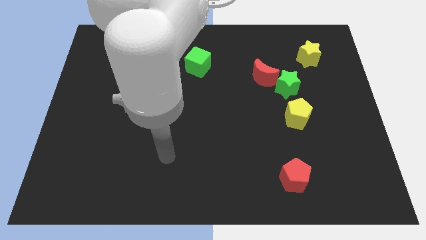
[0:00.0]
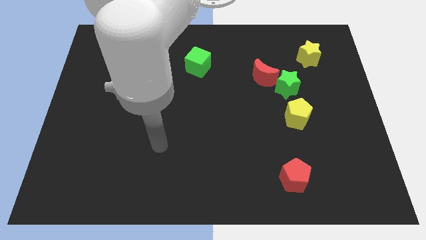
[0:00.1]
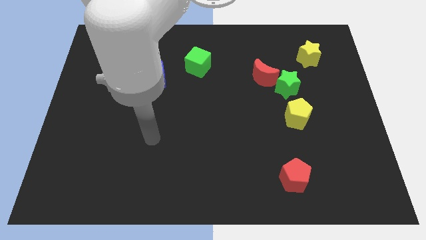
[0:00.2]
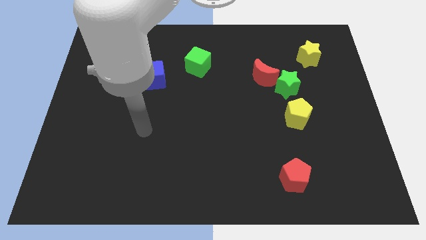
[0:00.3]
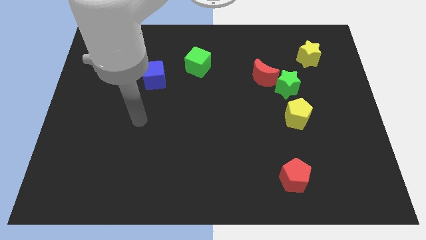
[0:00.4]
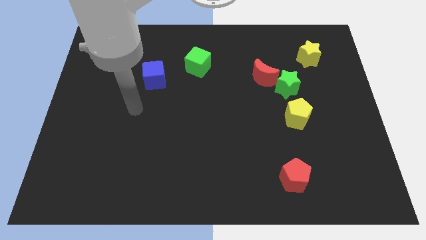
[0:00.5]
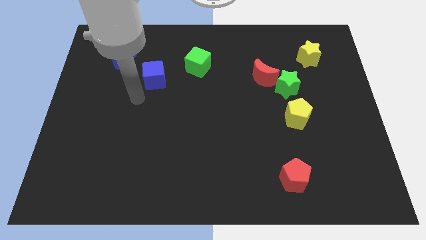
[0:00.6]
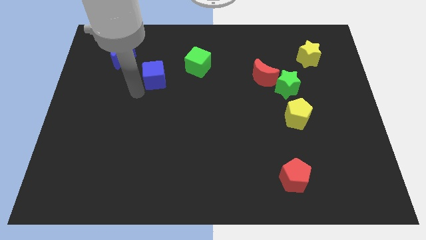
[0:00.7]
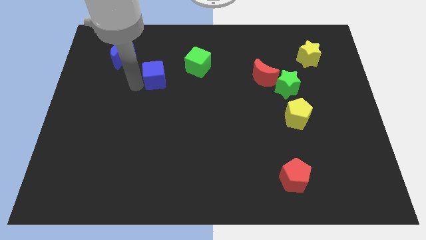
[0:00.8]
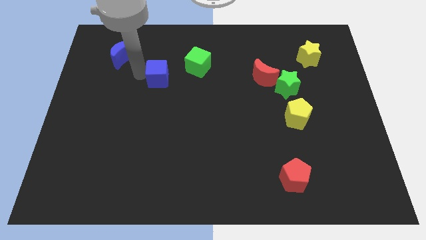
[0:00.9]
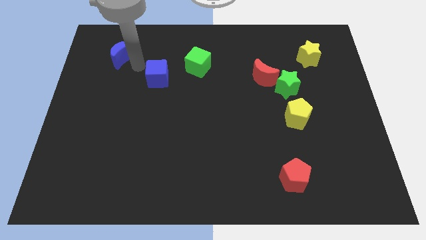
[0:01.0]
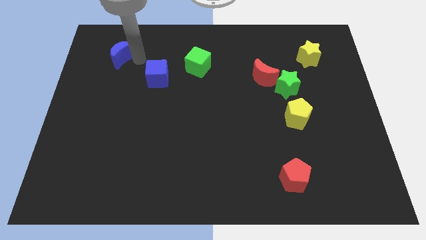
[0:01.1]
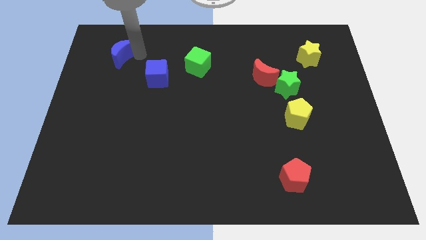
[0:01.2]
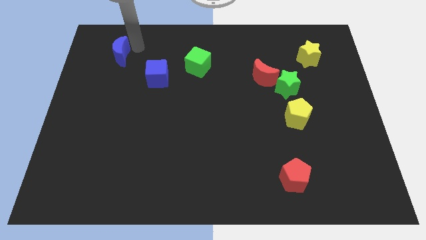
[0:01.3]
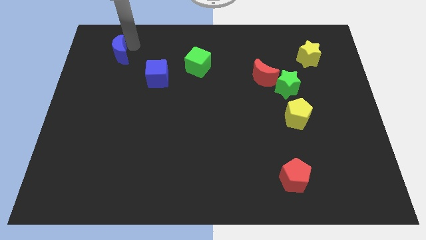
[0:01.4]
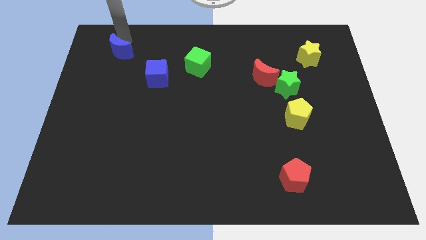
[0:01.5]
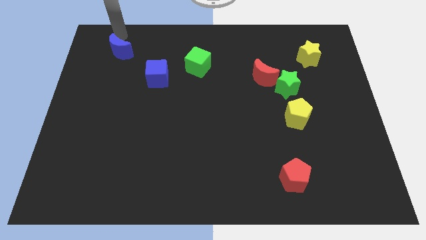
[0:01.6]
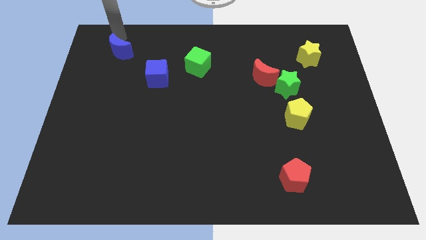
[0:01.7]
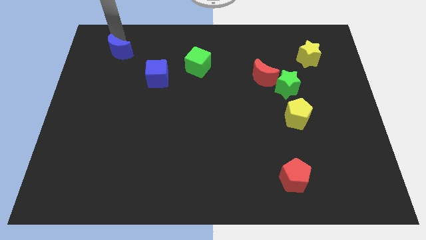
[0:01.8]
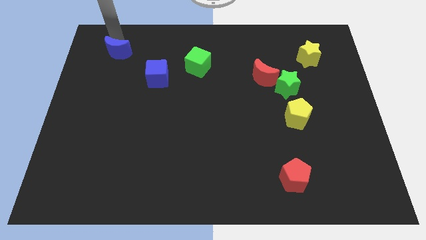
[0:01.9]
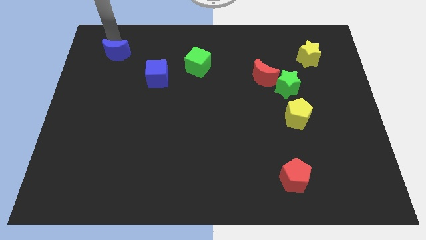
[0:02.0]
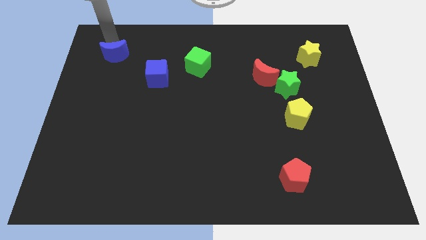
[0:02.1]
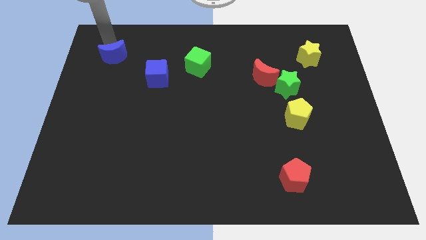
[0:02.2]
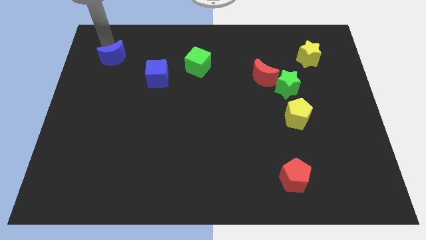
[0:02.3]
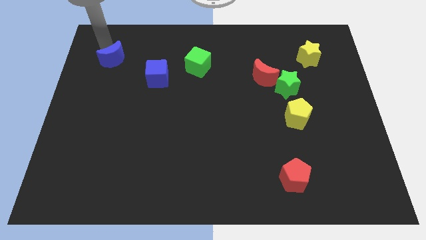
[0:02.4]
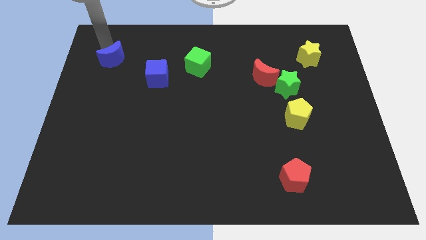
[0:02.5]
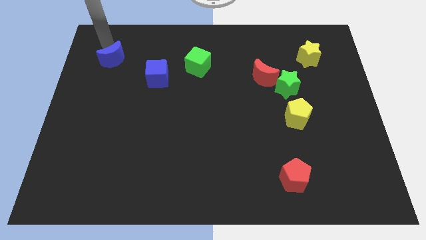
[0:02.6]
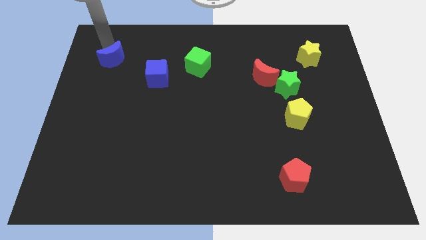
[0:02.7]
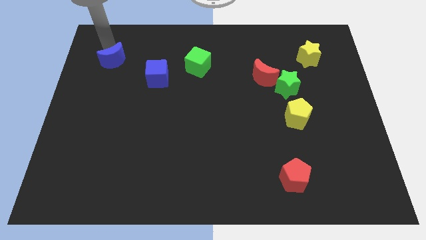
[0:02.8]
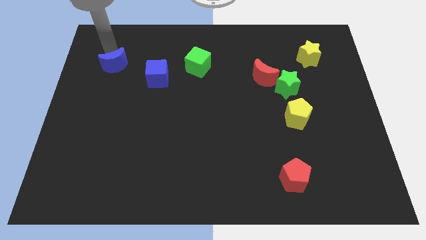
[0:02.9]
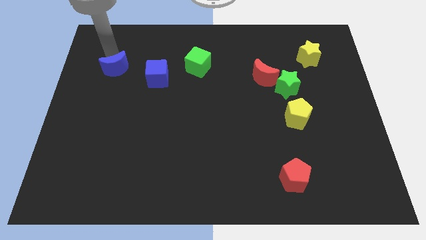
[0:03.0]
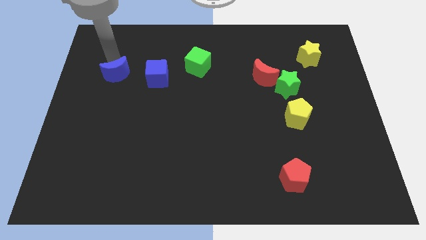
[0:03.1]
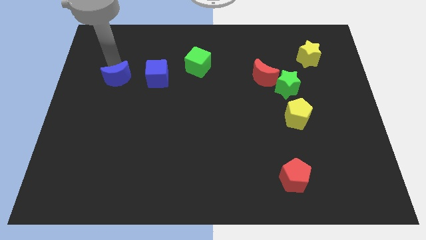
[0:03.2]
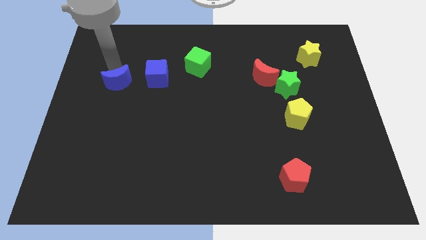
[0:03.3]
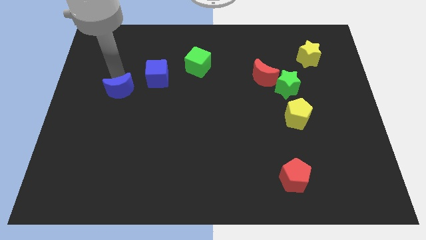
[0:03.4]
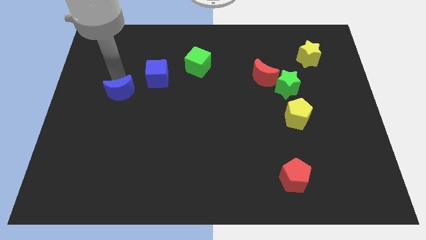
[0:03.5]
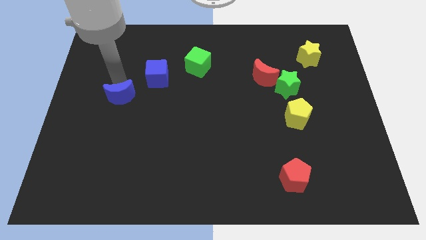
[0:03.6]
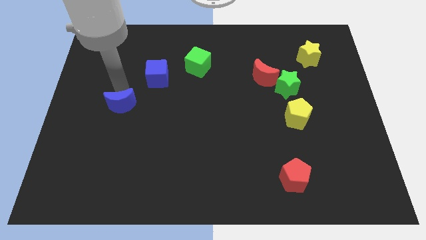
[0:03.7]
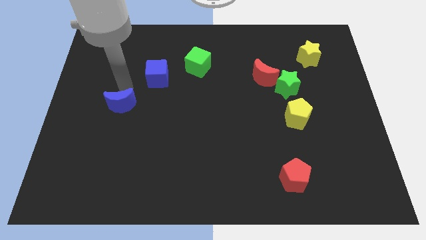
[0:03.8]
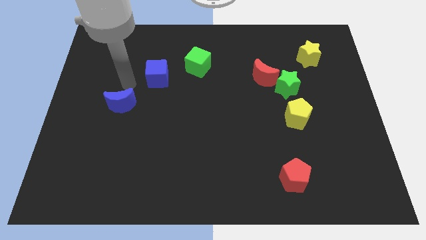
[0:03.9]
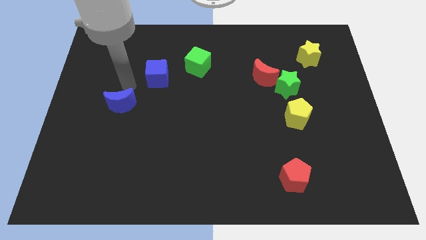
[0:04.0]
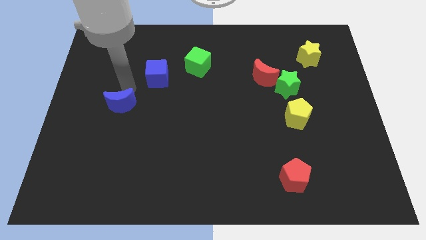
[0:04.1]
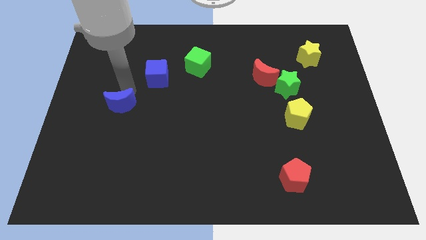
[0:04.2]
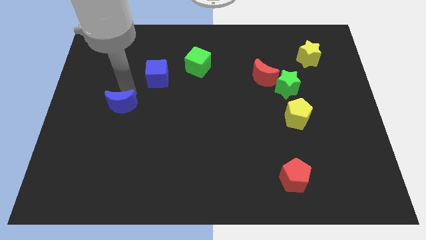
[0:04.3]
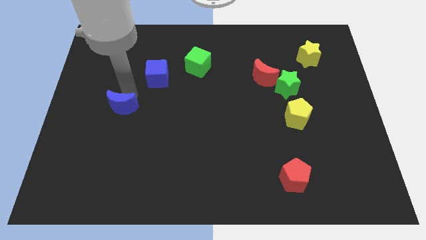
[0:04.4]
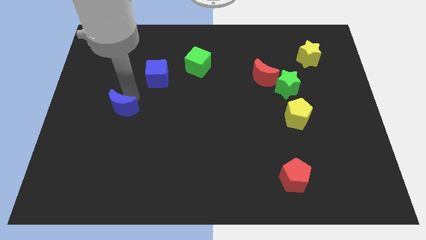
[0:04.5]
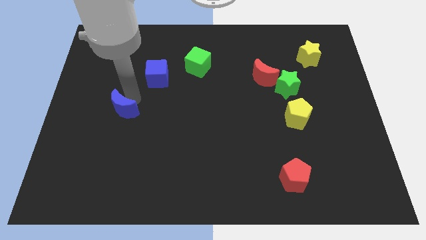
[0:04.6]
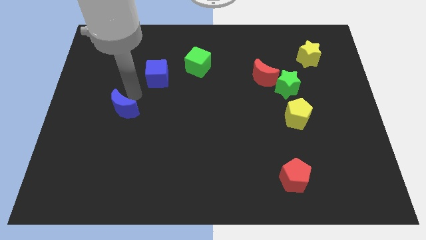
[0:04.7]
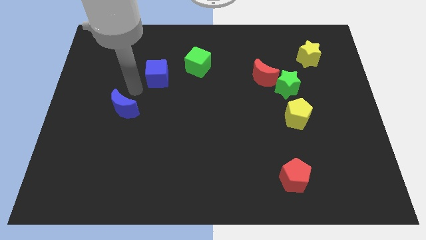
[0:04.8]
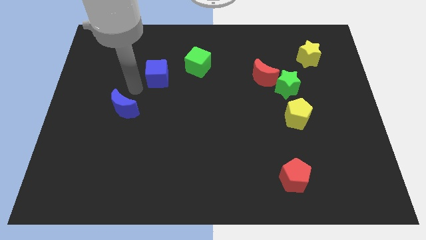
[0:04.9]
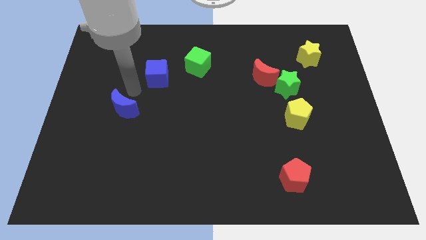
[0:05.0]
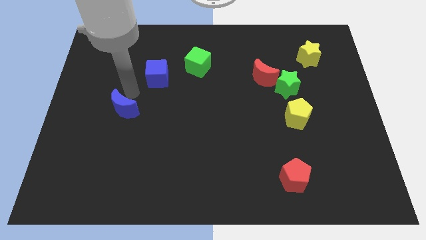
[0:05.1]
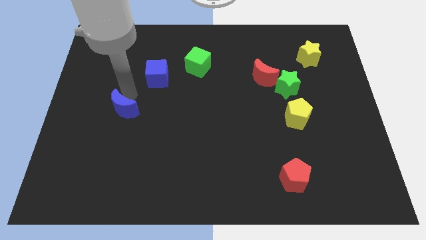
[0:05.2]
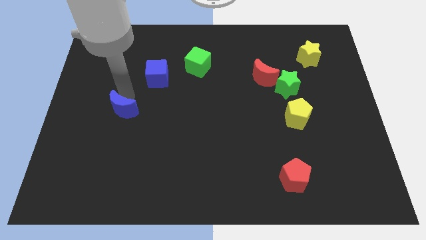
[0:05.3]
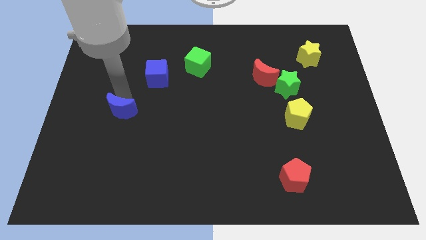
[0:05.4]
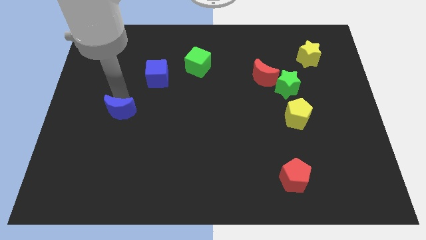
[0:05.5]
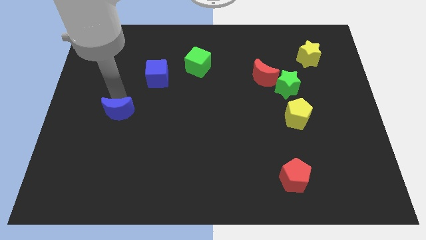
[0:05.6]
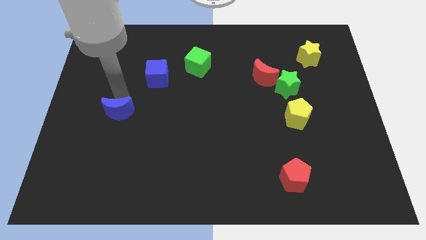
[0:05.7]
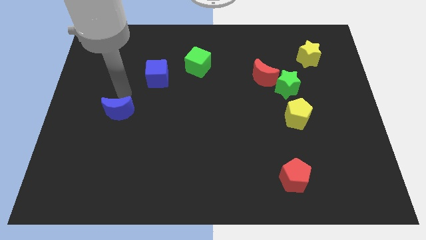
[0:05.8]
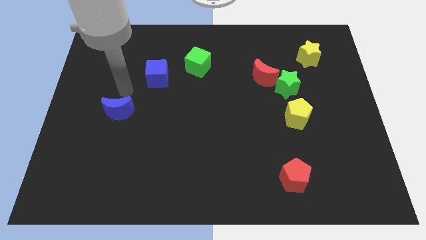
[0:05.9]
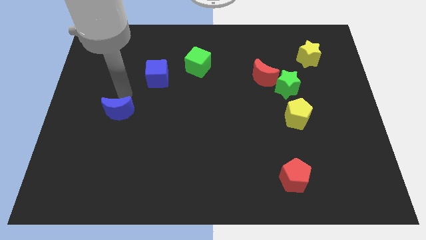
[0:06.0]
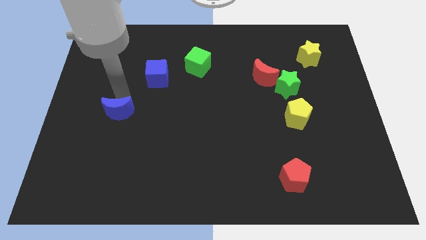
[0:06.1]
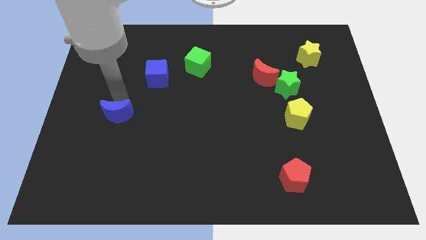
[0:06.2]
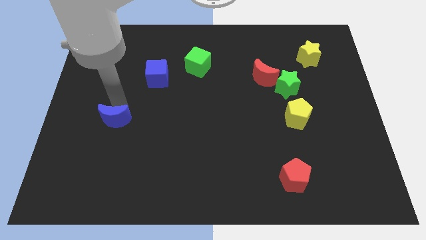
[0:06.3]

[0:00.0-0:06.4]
push the blue moon downwards

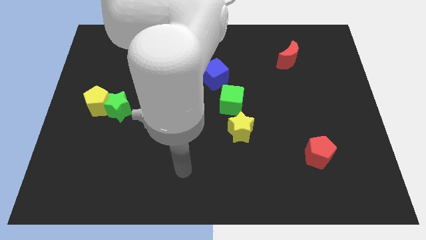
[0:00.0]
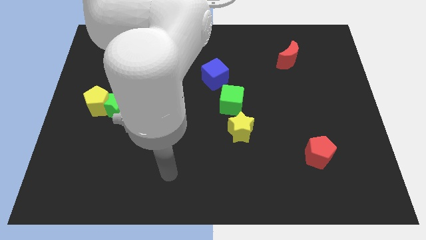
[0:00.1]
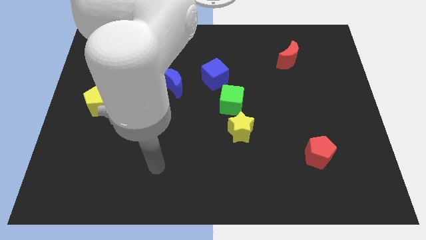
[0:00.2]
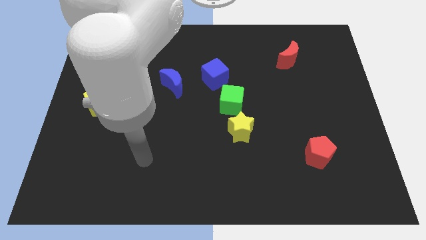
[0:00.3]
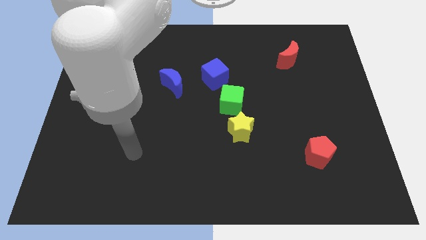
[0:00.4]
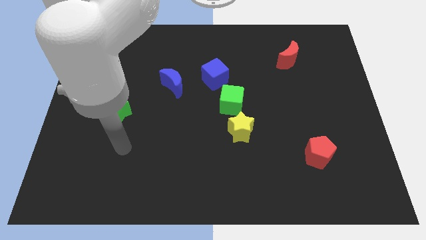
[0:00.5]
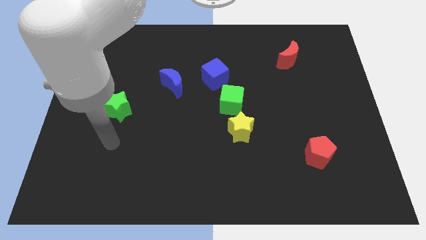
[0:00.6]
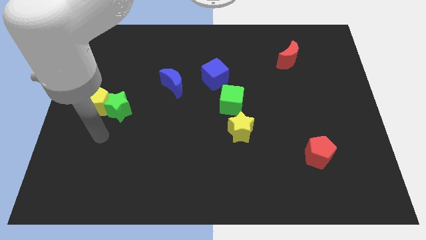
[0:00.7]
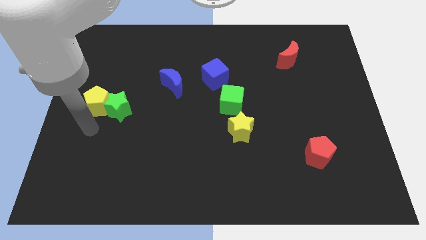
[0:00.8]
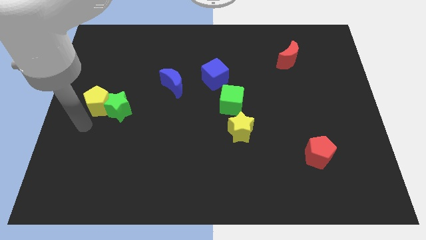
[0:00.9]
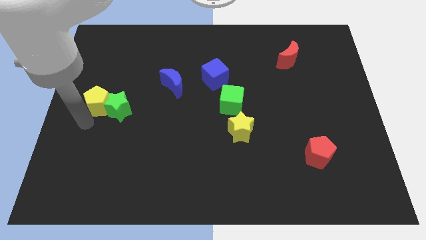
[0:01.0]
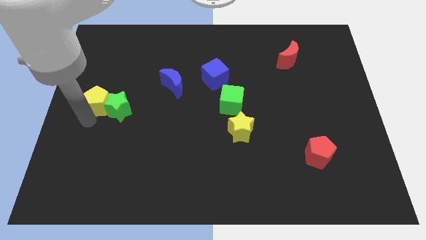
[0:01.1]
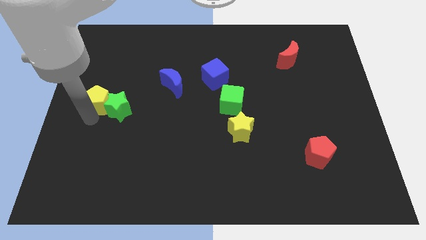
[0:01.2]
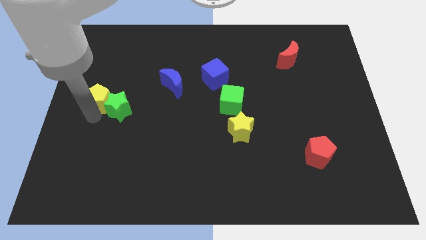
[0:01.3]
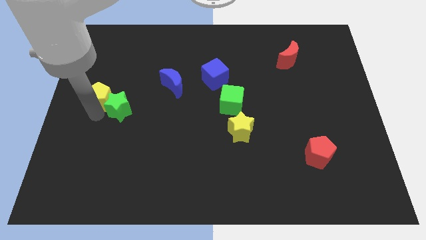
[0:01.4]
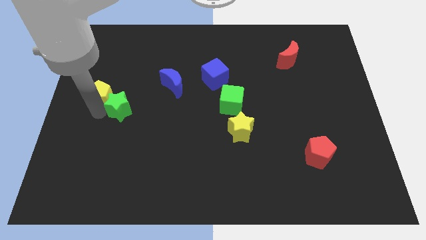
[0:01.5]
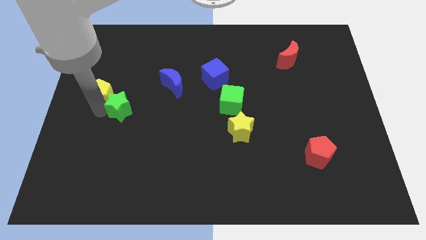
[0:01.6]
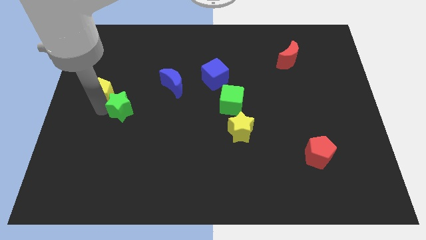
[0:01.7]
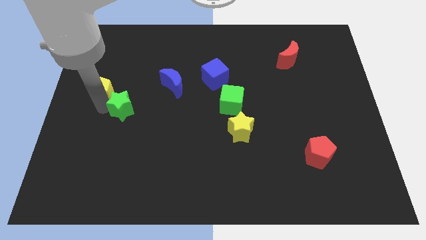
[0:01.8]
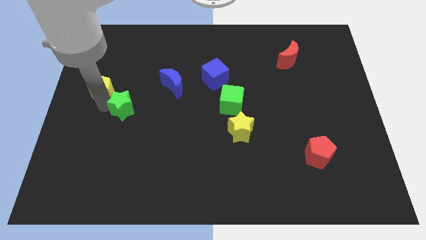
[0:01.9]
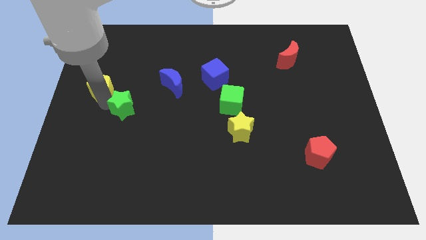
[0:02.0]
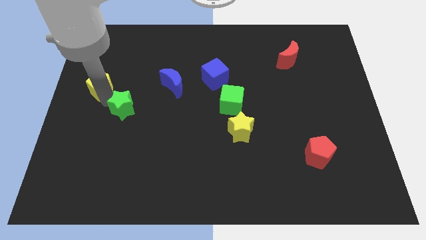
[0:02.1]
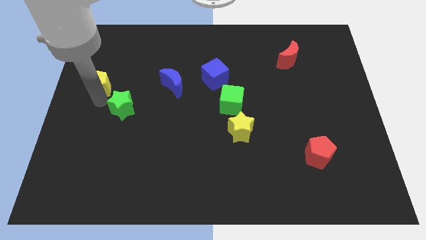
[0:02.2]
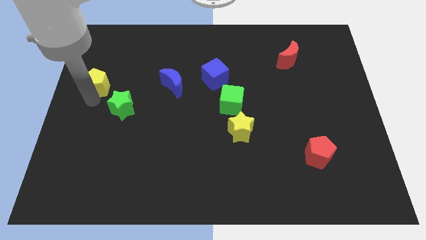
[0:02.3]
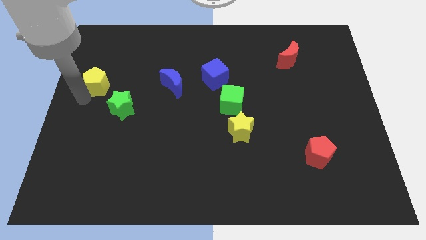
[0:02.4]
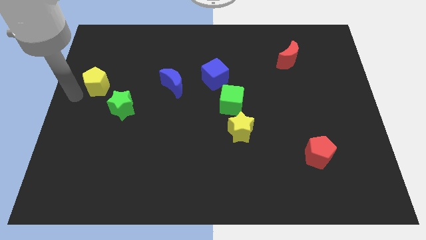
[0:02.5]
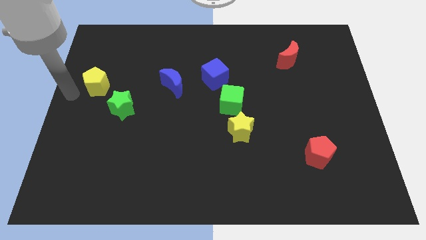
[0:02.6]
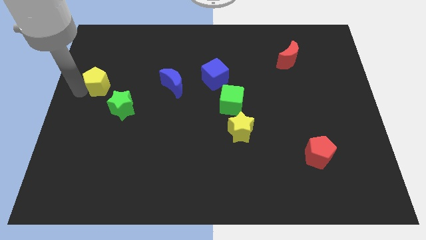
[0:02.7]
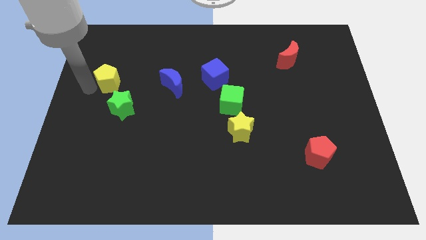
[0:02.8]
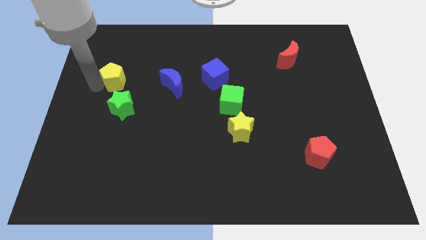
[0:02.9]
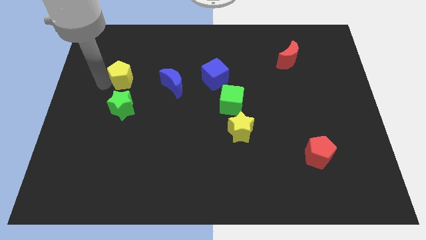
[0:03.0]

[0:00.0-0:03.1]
slide the yellow pentagon up and then right a little bit
